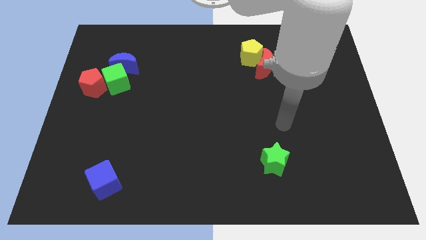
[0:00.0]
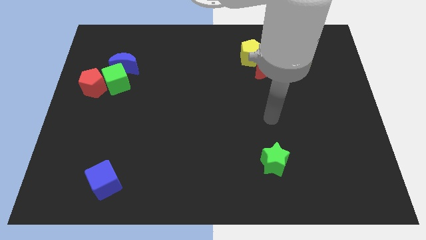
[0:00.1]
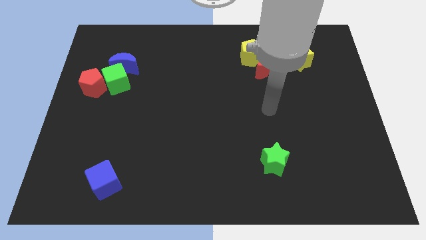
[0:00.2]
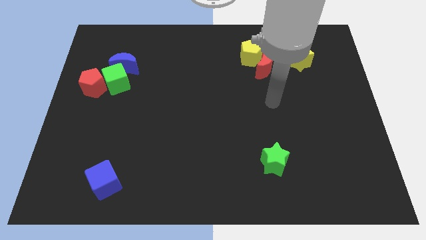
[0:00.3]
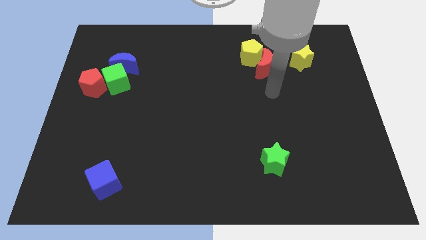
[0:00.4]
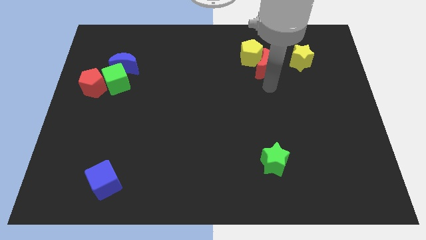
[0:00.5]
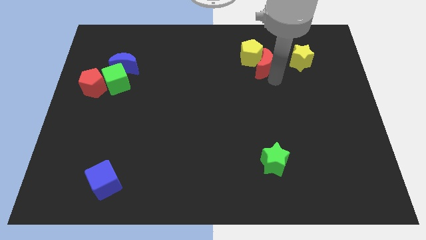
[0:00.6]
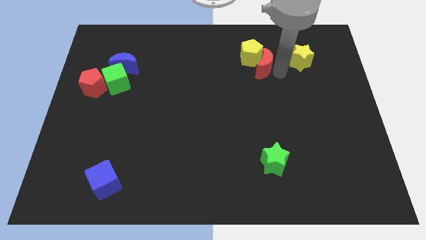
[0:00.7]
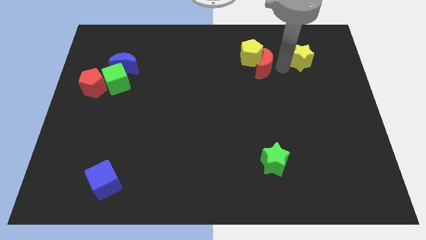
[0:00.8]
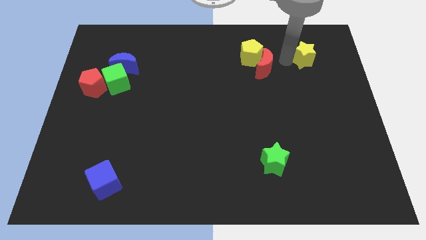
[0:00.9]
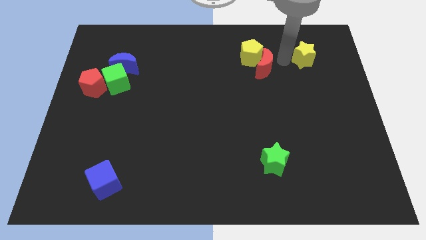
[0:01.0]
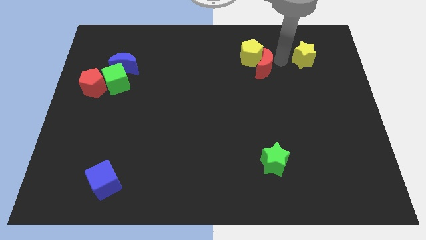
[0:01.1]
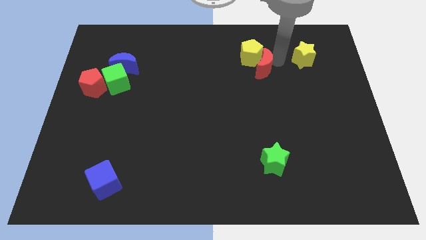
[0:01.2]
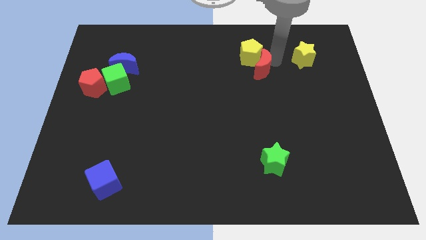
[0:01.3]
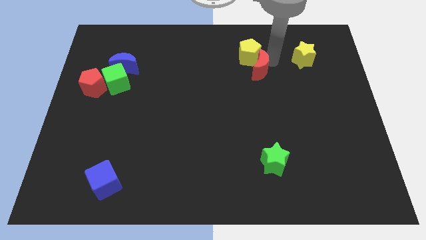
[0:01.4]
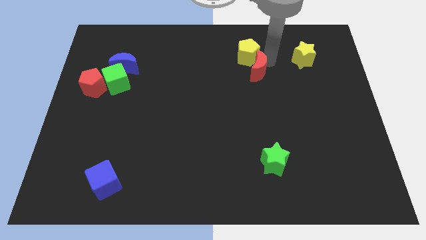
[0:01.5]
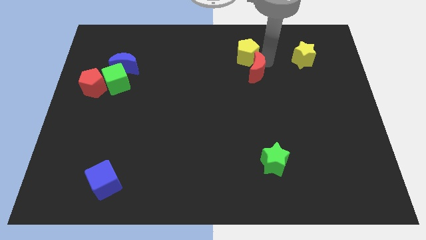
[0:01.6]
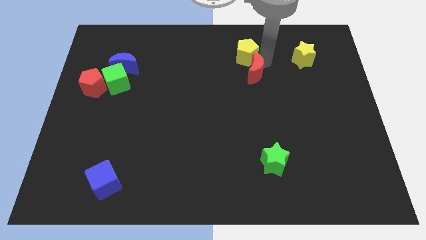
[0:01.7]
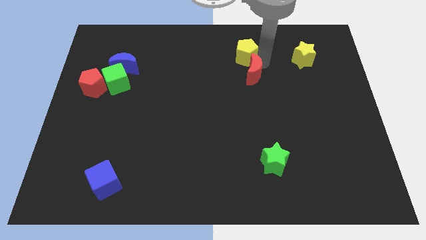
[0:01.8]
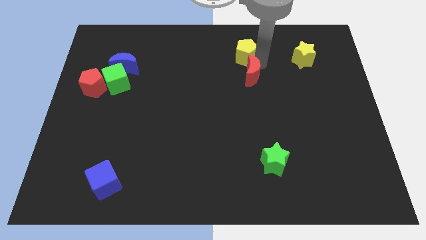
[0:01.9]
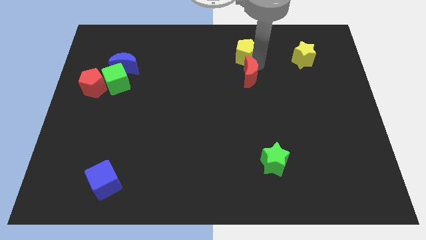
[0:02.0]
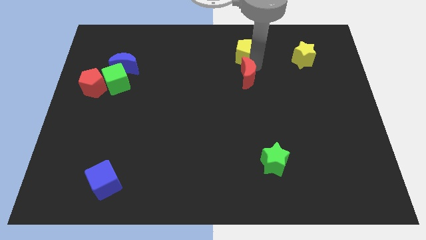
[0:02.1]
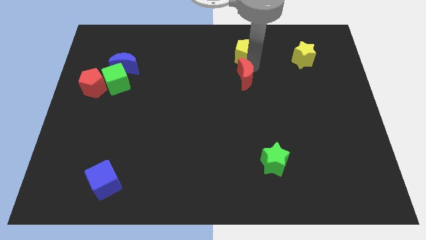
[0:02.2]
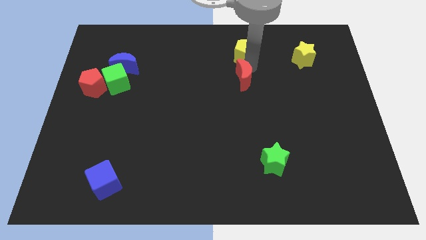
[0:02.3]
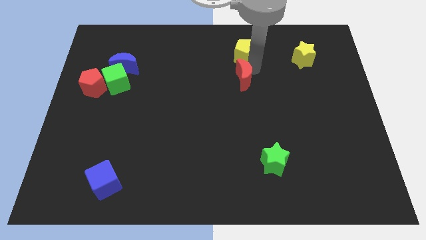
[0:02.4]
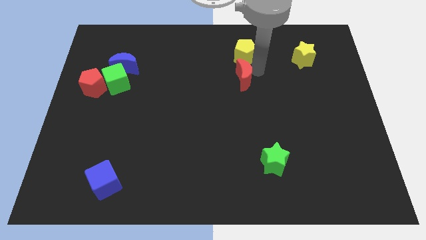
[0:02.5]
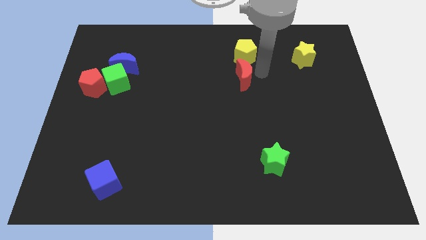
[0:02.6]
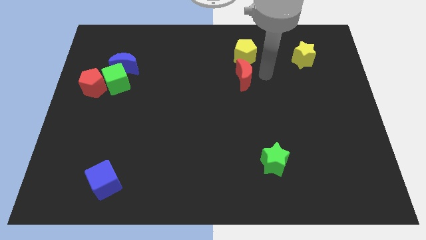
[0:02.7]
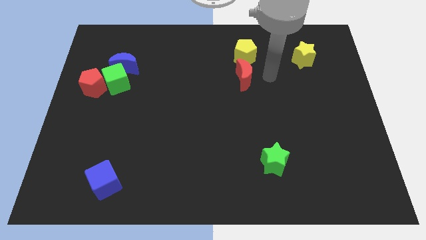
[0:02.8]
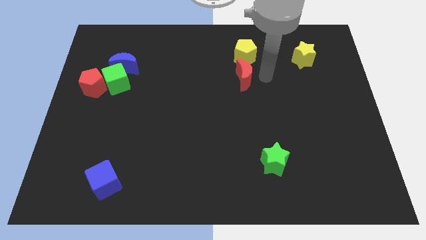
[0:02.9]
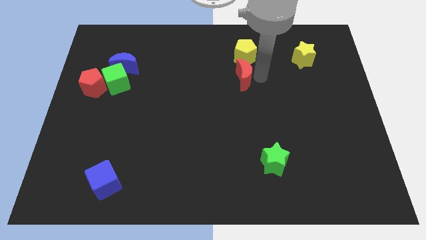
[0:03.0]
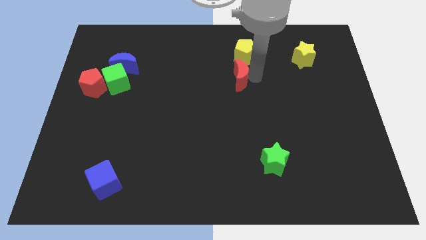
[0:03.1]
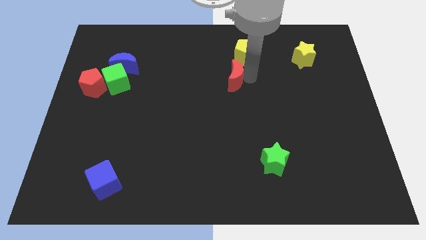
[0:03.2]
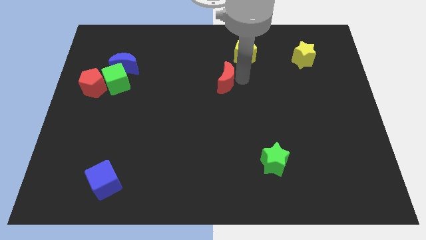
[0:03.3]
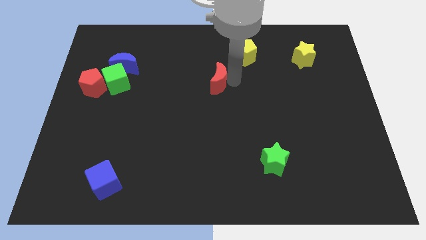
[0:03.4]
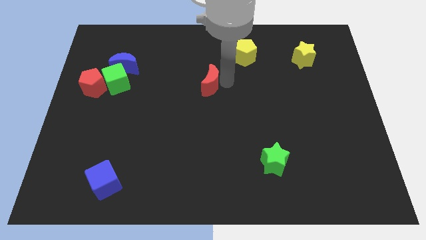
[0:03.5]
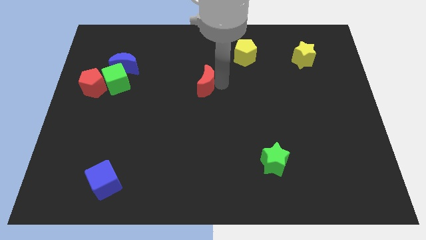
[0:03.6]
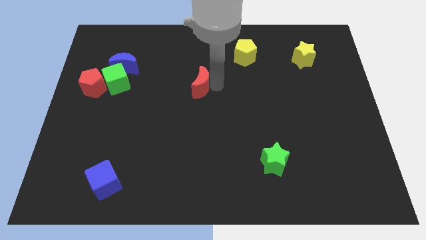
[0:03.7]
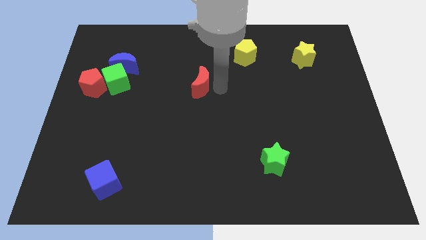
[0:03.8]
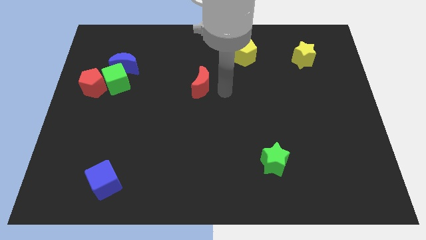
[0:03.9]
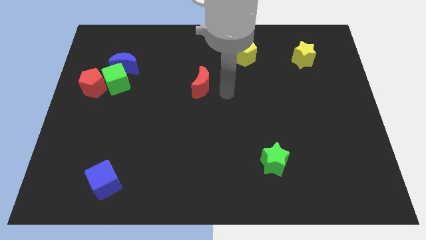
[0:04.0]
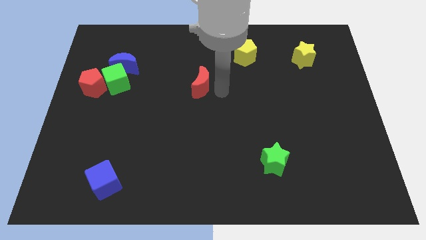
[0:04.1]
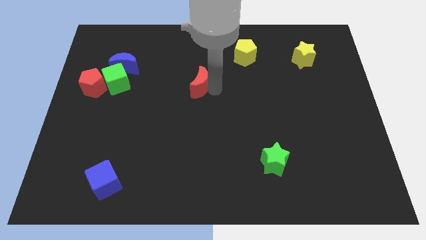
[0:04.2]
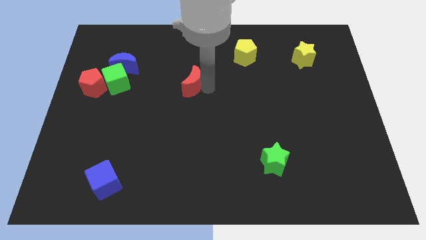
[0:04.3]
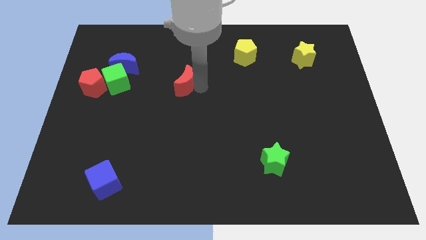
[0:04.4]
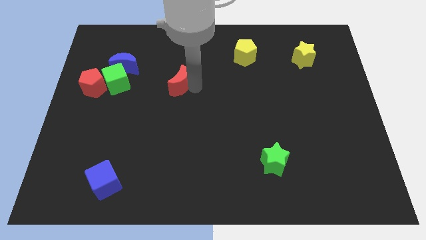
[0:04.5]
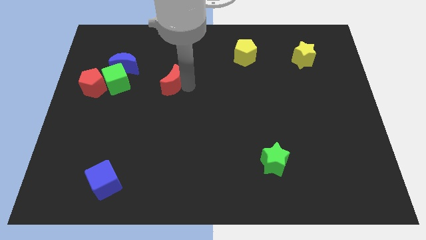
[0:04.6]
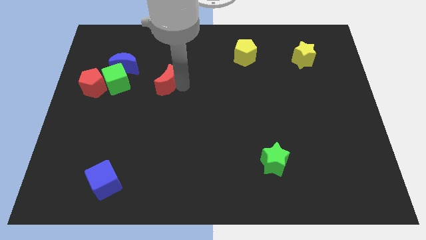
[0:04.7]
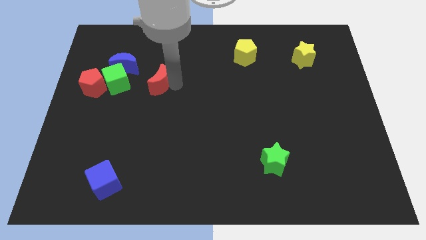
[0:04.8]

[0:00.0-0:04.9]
slide the red moon to the bottom right of the blue moon

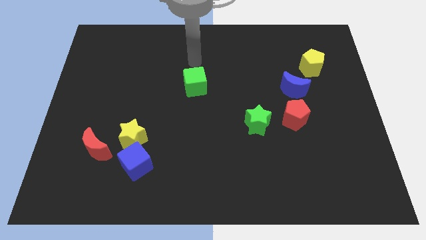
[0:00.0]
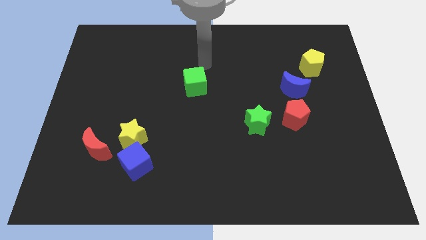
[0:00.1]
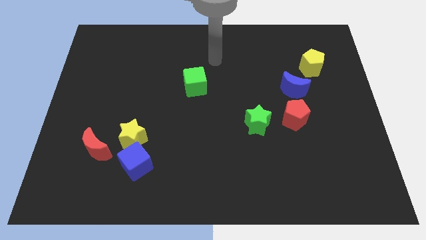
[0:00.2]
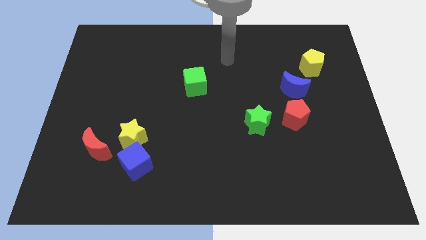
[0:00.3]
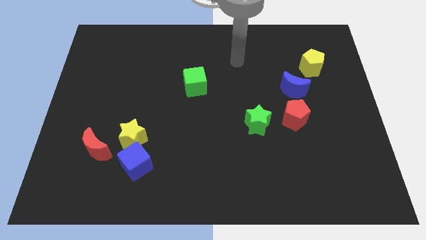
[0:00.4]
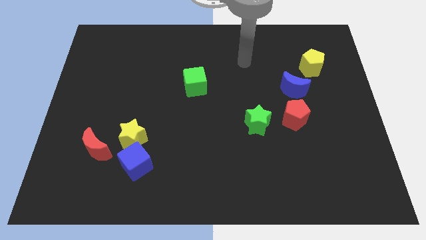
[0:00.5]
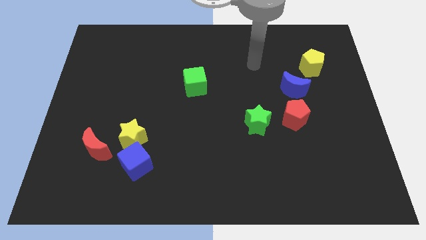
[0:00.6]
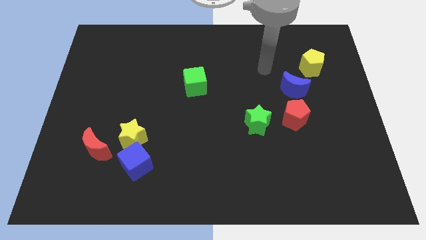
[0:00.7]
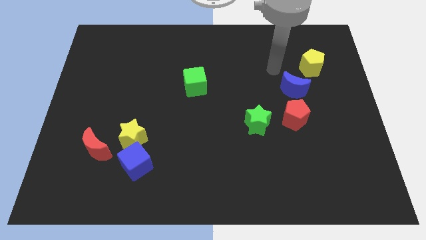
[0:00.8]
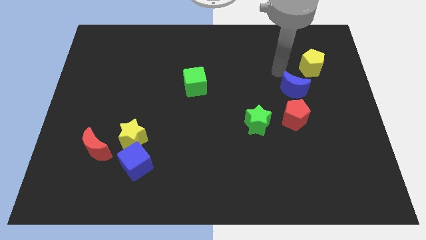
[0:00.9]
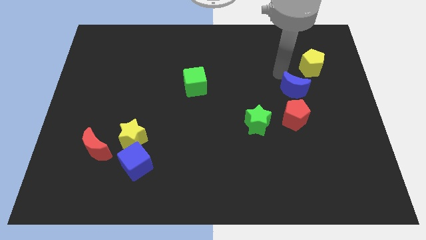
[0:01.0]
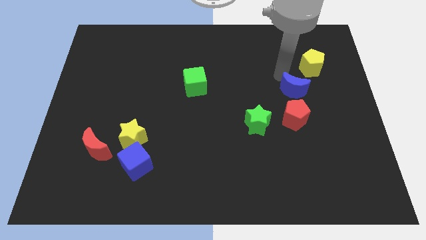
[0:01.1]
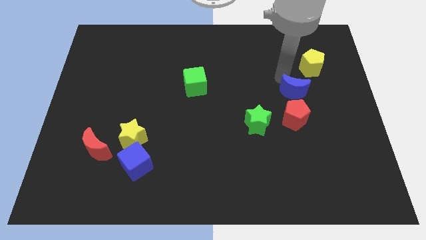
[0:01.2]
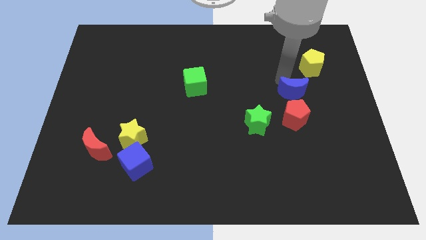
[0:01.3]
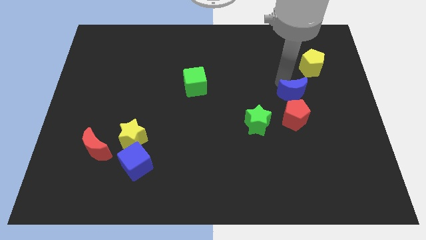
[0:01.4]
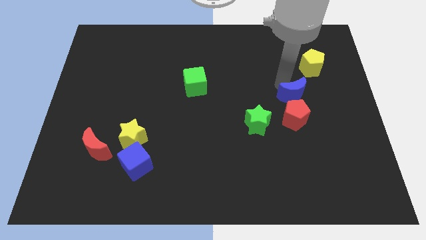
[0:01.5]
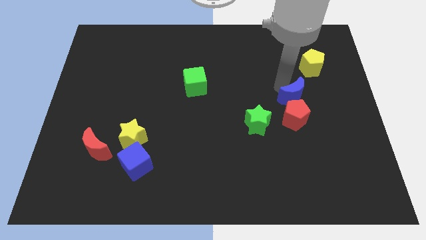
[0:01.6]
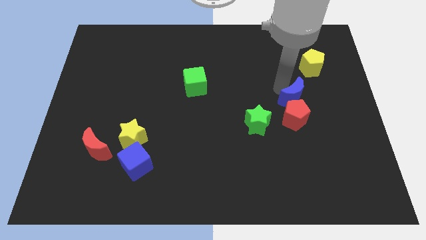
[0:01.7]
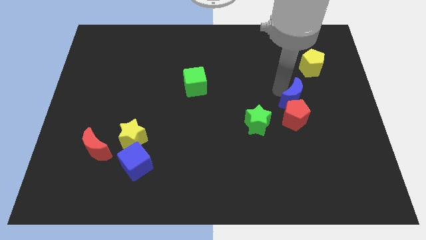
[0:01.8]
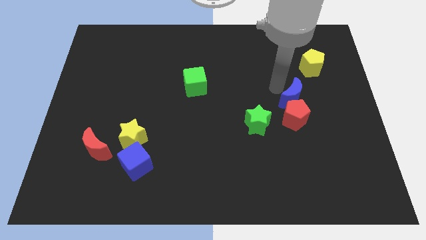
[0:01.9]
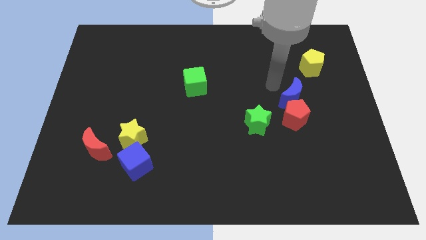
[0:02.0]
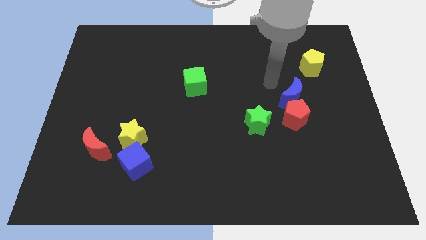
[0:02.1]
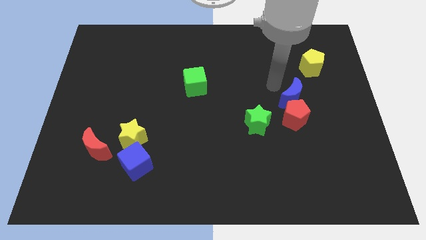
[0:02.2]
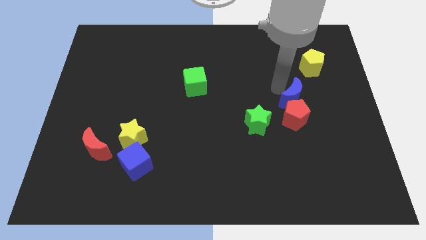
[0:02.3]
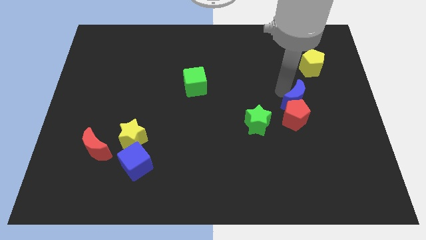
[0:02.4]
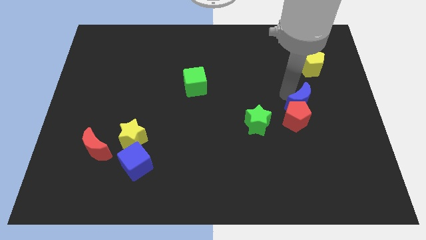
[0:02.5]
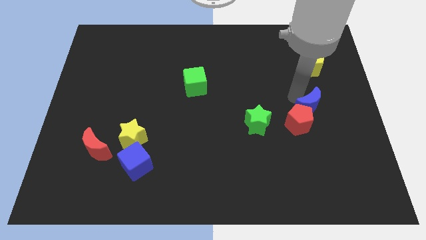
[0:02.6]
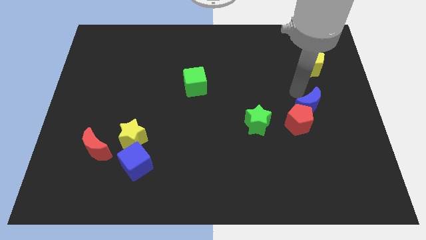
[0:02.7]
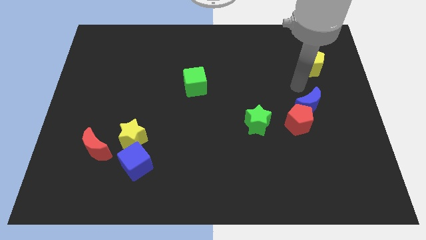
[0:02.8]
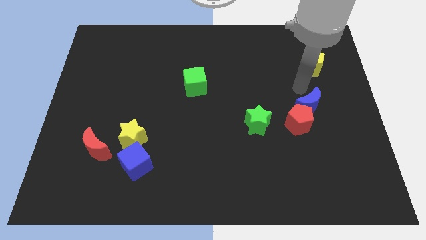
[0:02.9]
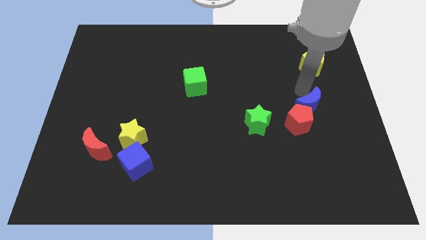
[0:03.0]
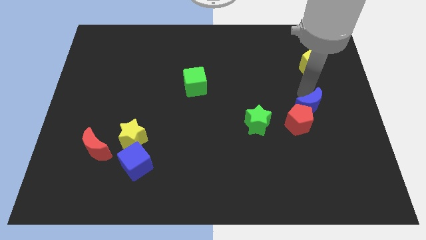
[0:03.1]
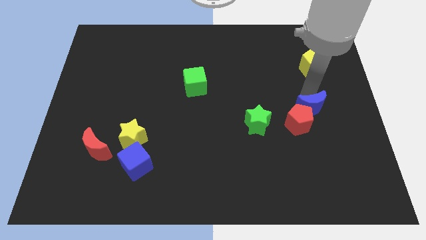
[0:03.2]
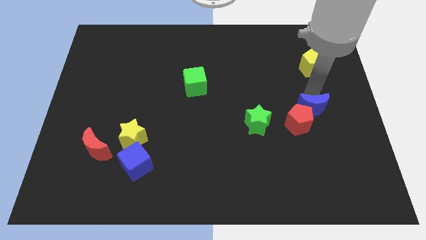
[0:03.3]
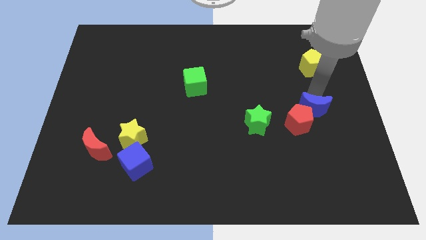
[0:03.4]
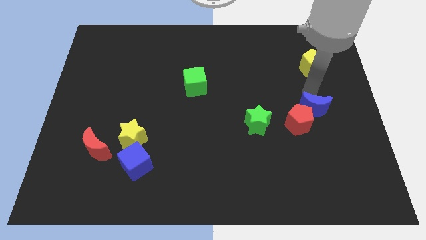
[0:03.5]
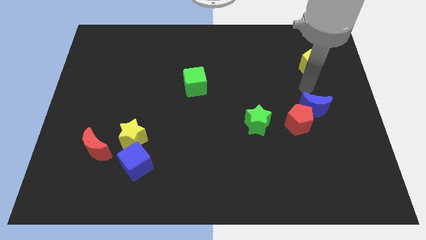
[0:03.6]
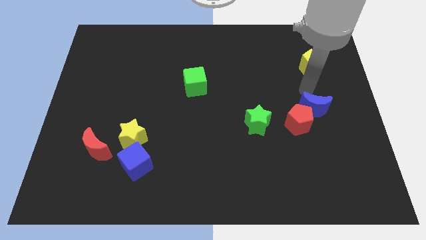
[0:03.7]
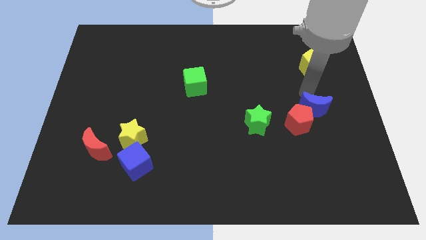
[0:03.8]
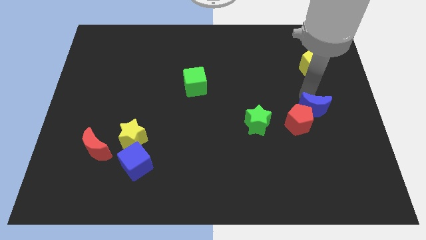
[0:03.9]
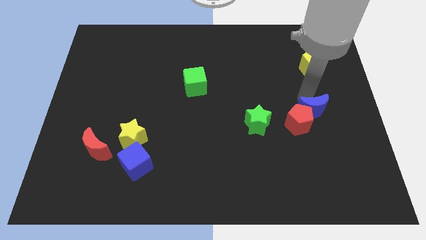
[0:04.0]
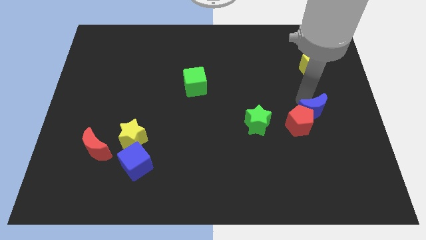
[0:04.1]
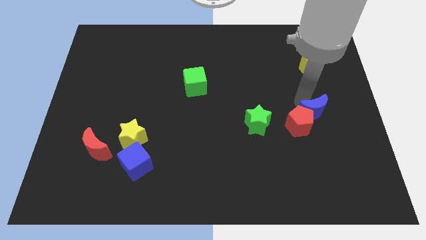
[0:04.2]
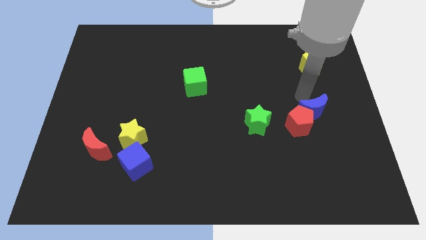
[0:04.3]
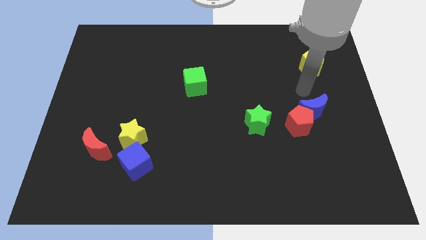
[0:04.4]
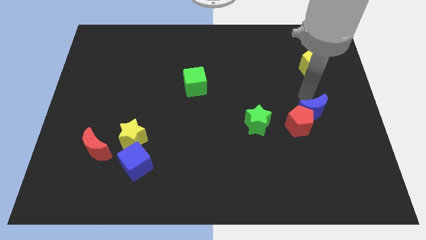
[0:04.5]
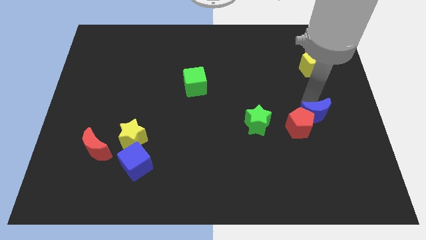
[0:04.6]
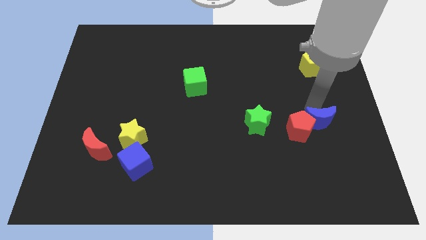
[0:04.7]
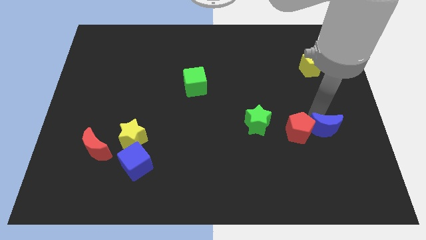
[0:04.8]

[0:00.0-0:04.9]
put the blue moon to the bottom right side of the red pentagon
